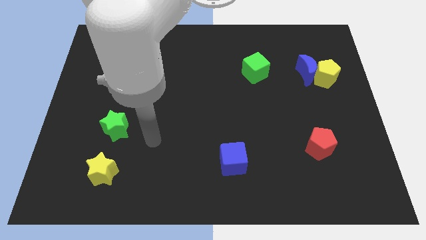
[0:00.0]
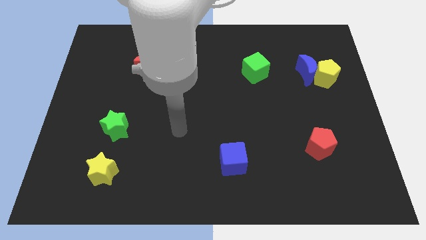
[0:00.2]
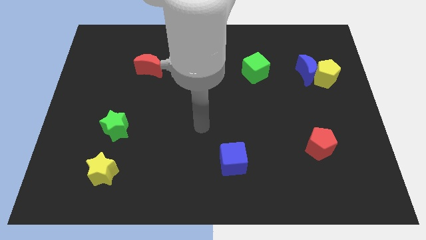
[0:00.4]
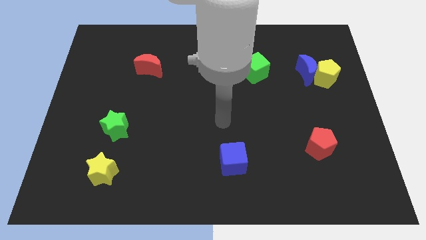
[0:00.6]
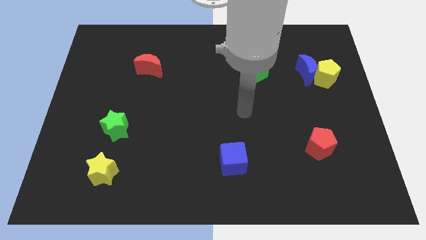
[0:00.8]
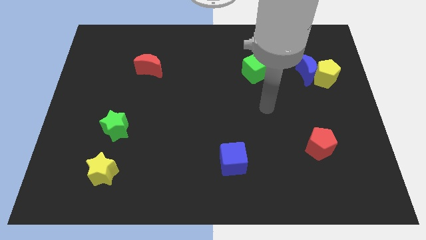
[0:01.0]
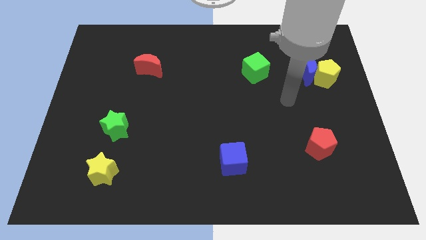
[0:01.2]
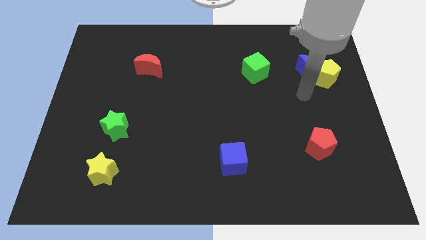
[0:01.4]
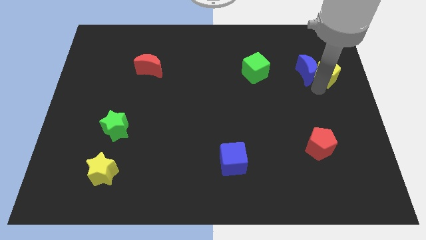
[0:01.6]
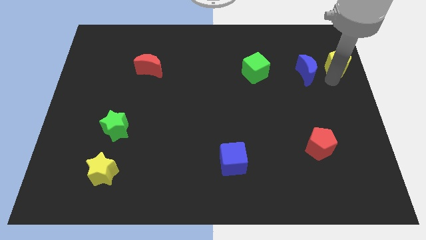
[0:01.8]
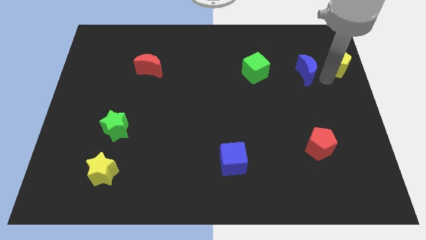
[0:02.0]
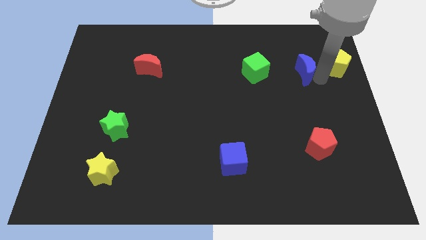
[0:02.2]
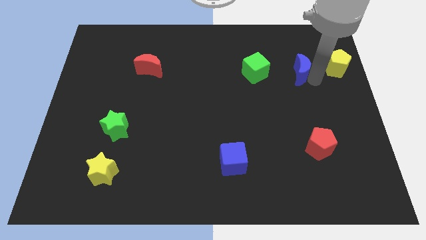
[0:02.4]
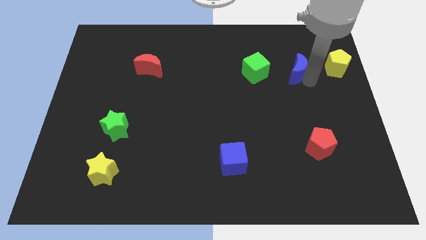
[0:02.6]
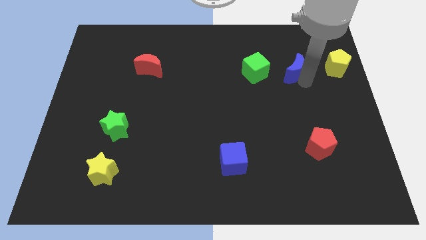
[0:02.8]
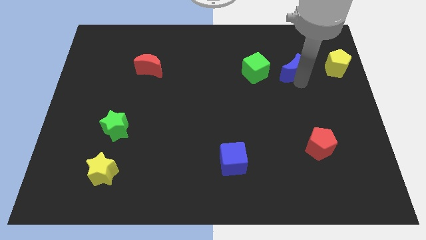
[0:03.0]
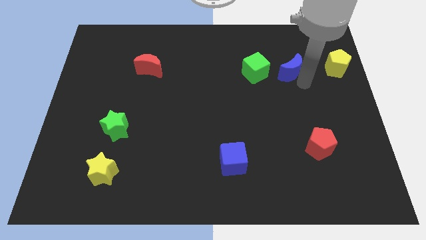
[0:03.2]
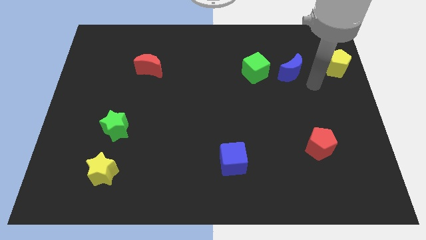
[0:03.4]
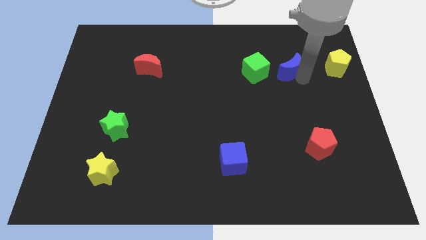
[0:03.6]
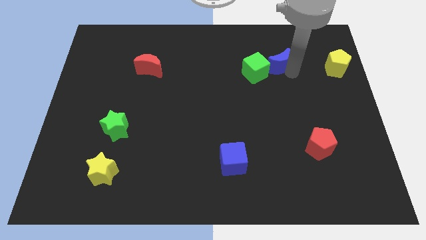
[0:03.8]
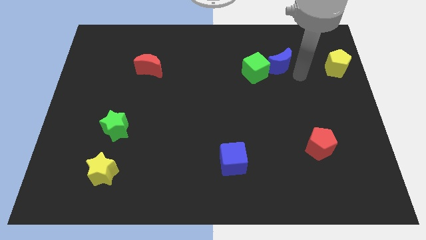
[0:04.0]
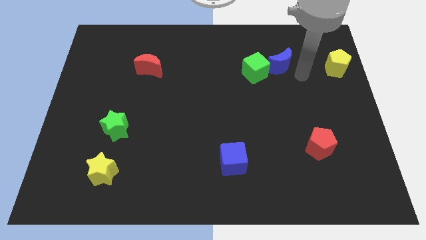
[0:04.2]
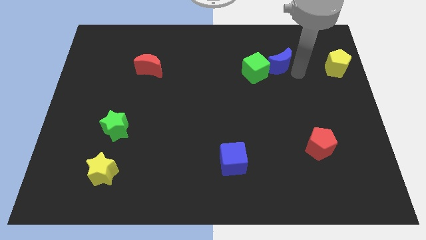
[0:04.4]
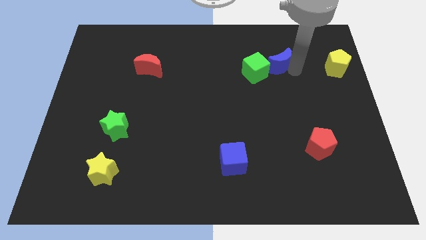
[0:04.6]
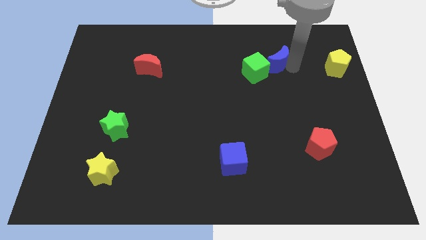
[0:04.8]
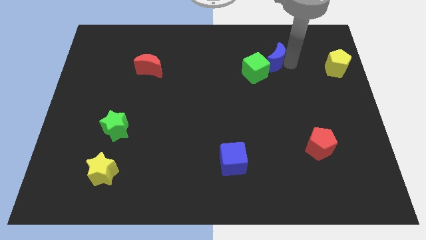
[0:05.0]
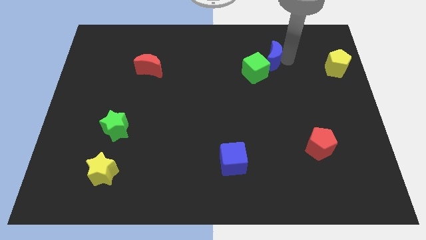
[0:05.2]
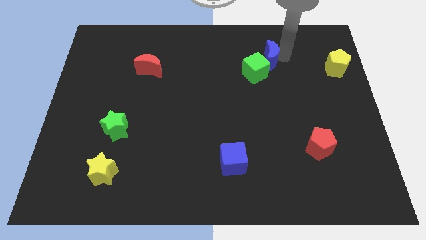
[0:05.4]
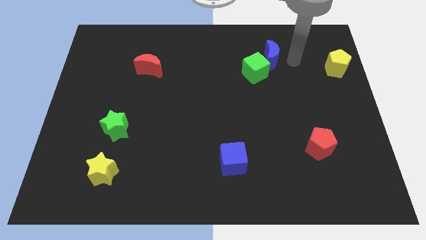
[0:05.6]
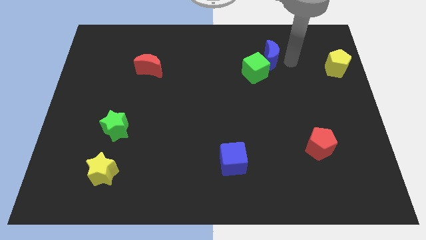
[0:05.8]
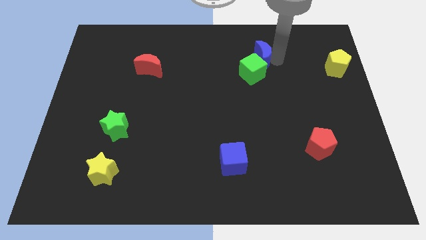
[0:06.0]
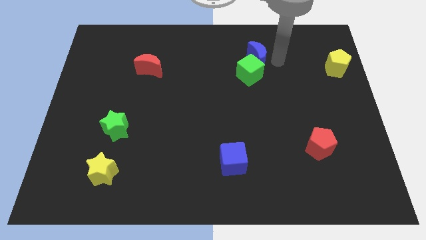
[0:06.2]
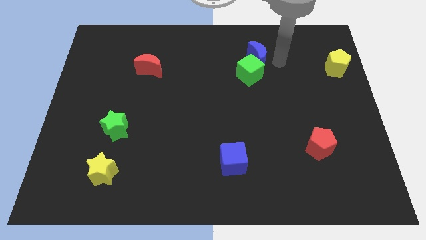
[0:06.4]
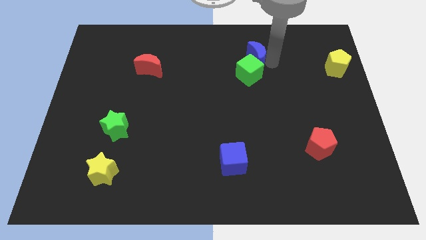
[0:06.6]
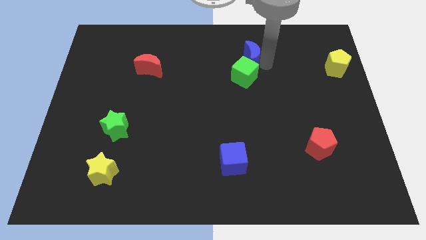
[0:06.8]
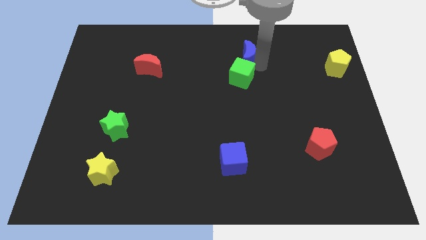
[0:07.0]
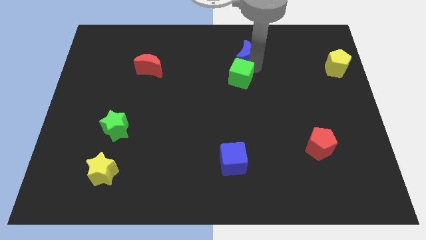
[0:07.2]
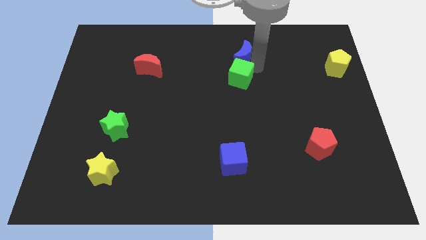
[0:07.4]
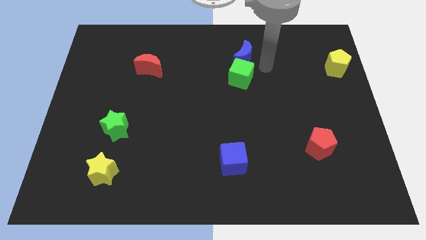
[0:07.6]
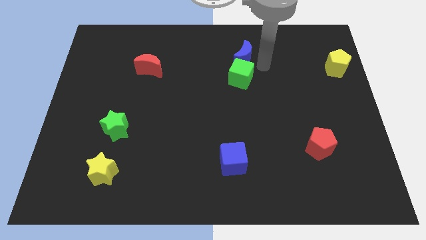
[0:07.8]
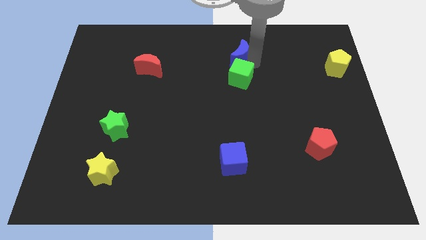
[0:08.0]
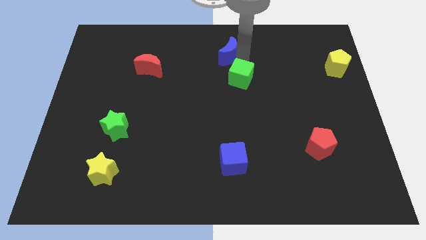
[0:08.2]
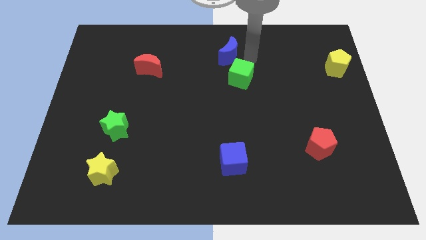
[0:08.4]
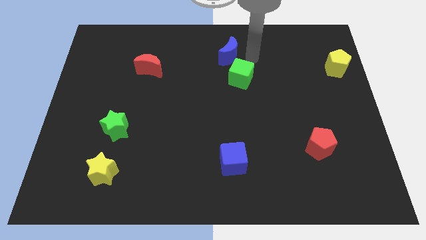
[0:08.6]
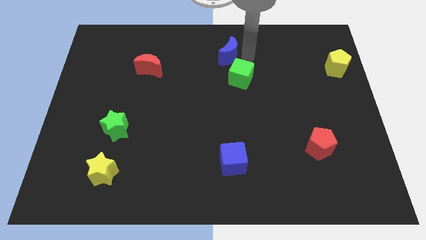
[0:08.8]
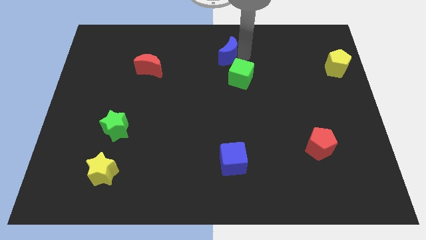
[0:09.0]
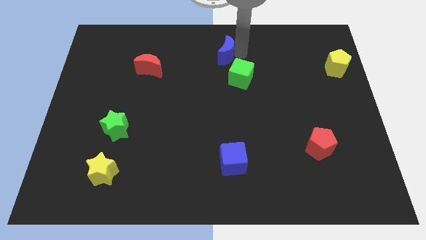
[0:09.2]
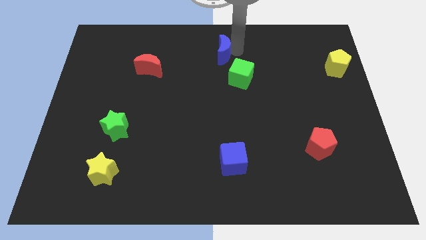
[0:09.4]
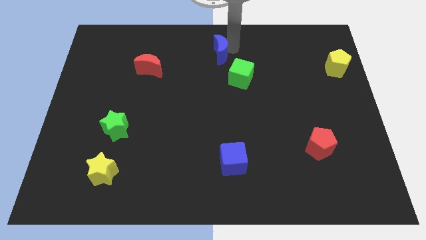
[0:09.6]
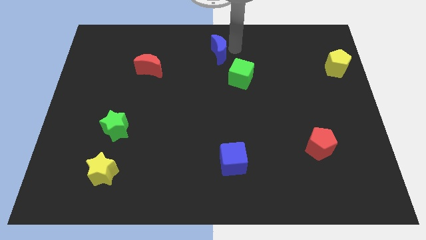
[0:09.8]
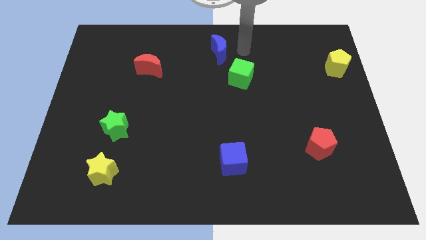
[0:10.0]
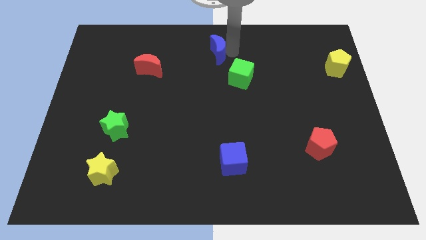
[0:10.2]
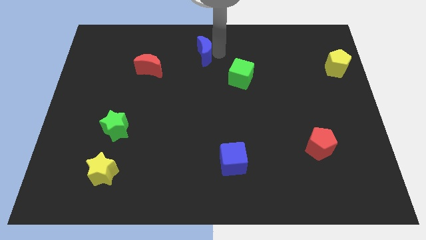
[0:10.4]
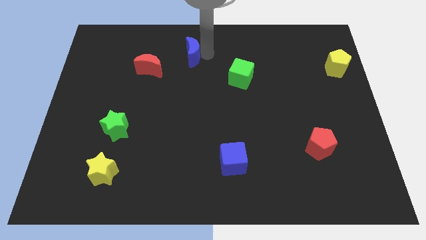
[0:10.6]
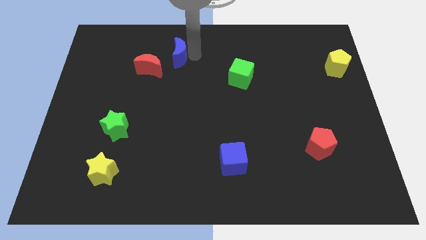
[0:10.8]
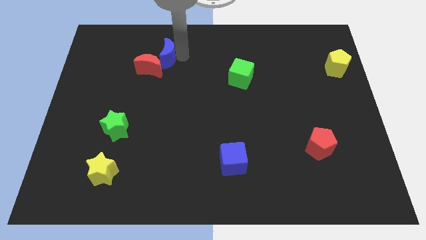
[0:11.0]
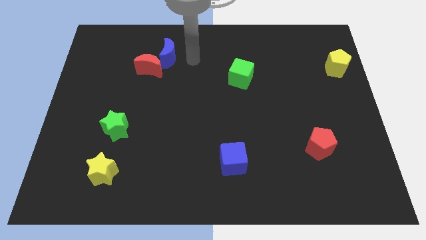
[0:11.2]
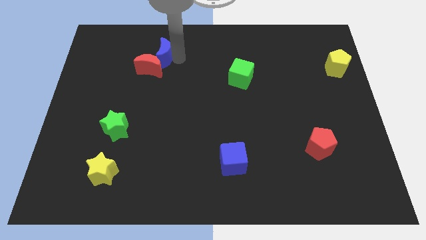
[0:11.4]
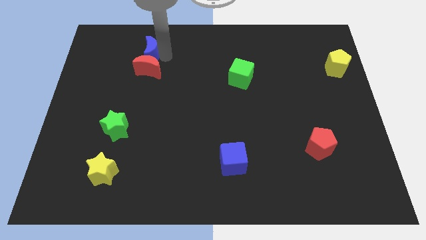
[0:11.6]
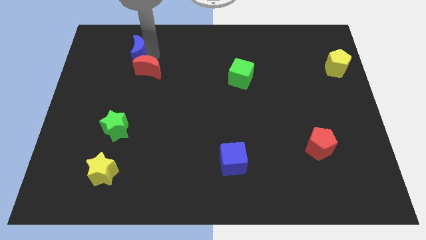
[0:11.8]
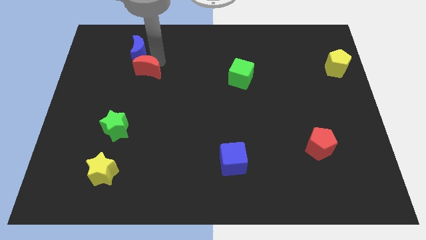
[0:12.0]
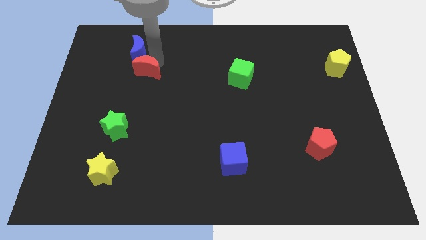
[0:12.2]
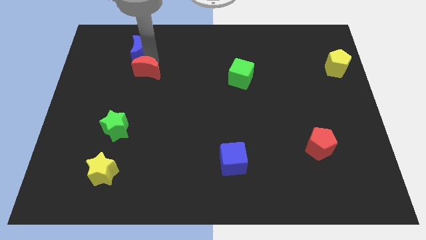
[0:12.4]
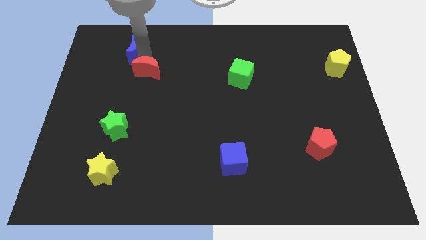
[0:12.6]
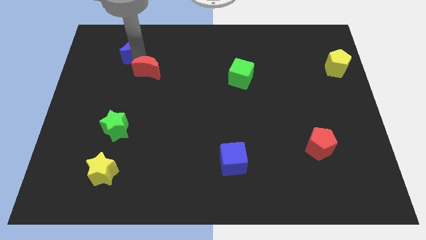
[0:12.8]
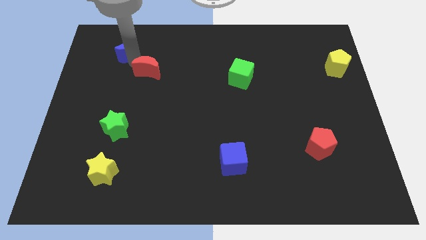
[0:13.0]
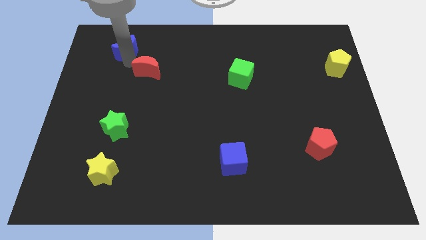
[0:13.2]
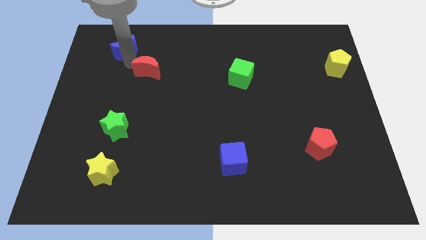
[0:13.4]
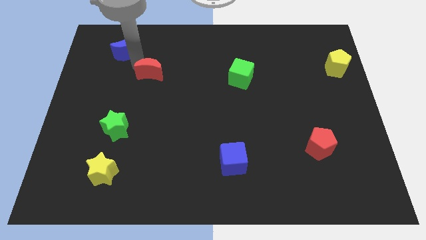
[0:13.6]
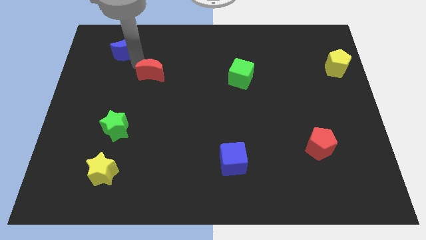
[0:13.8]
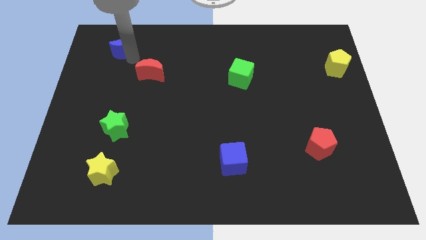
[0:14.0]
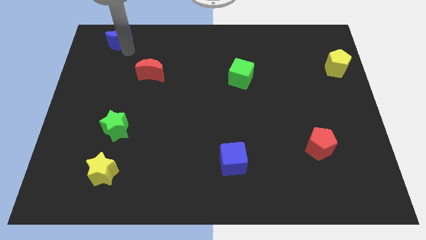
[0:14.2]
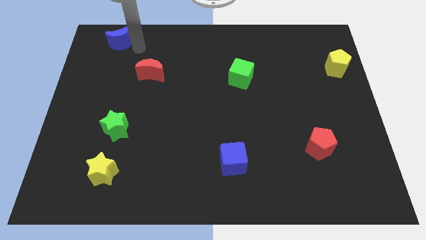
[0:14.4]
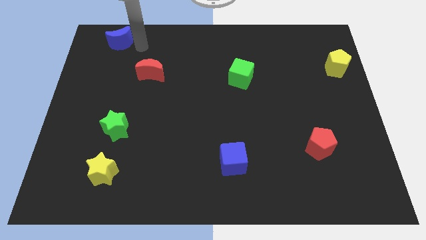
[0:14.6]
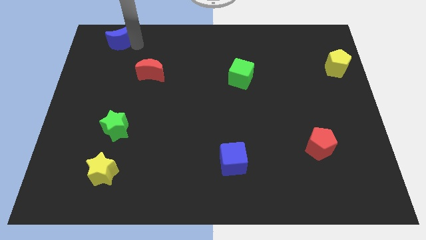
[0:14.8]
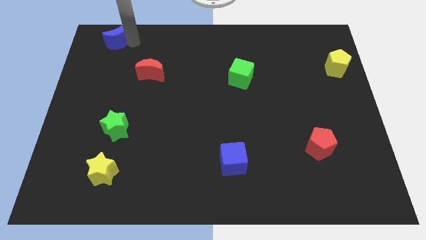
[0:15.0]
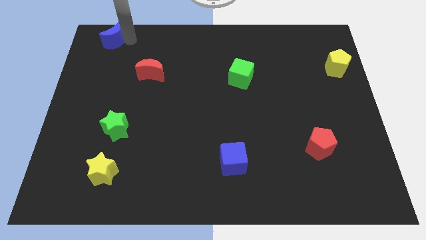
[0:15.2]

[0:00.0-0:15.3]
put the blue moon to the top left
